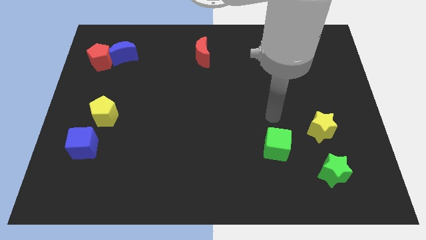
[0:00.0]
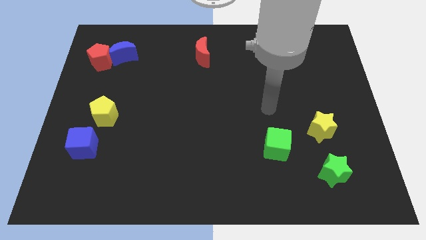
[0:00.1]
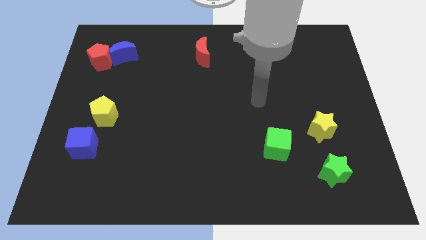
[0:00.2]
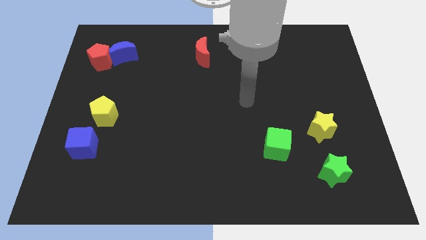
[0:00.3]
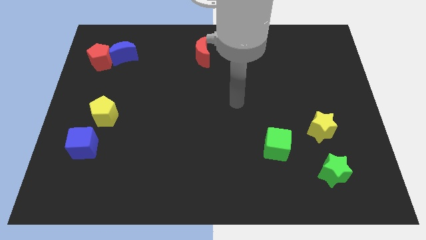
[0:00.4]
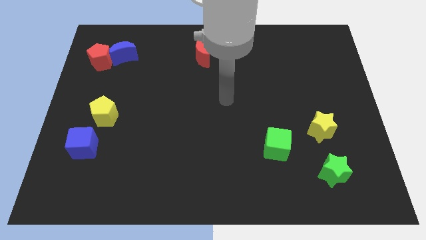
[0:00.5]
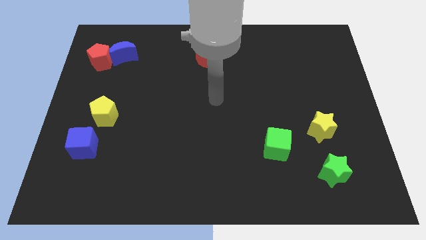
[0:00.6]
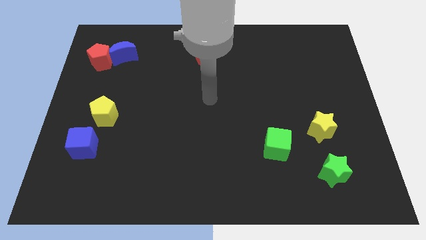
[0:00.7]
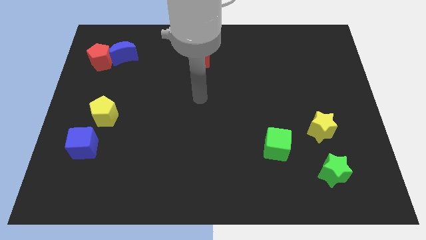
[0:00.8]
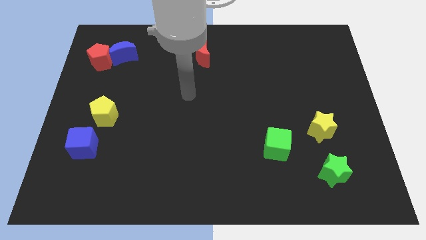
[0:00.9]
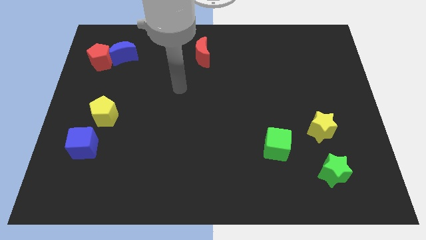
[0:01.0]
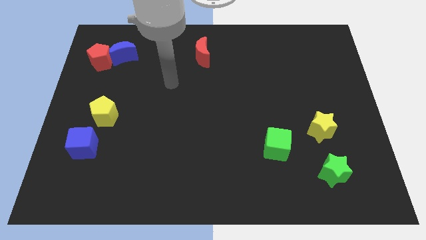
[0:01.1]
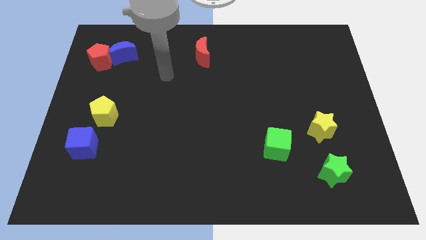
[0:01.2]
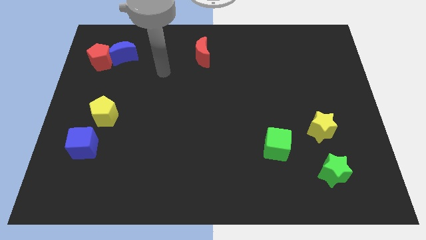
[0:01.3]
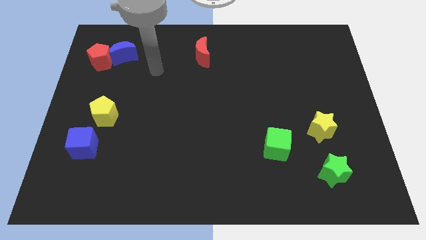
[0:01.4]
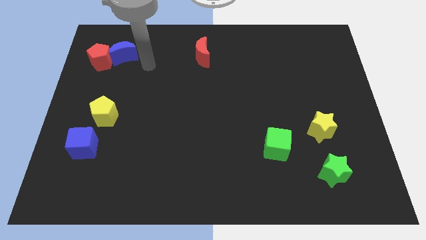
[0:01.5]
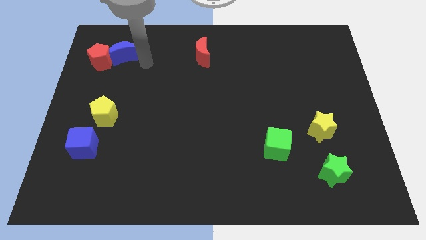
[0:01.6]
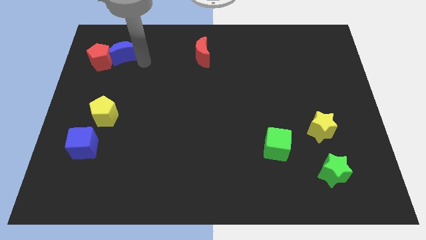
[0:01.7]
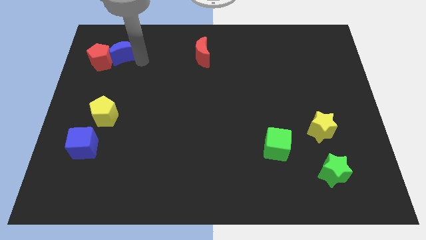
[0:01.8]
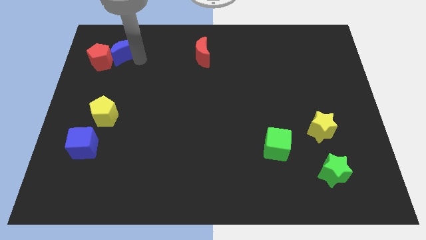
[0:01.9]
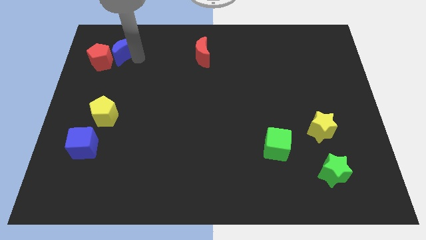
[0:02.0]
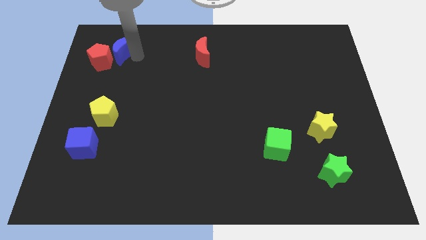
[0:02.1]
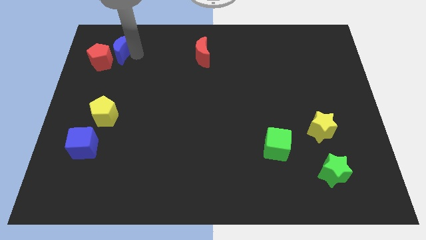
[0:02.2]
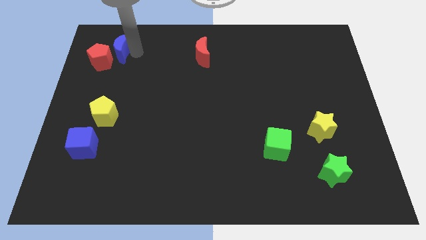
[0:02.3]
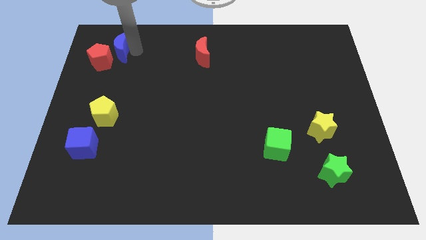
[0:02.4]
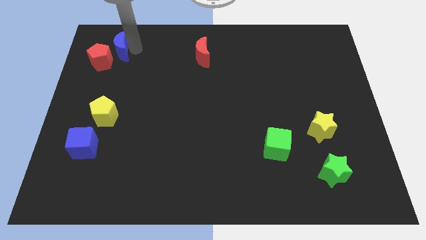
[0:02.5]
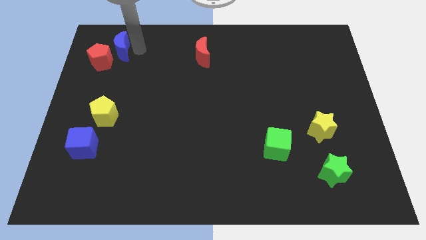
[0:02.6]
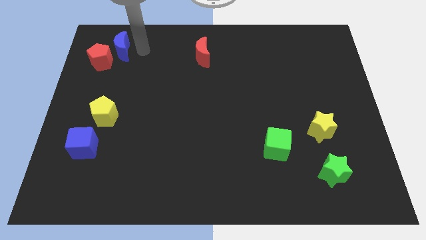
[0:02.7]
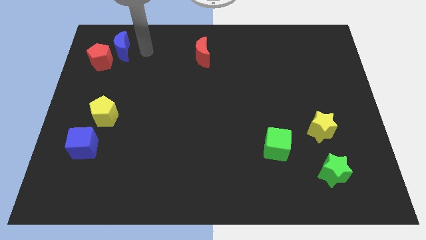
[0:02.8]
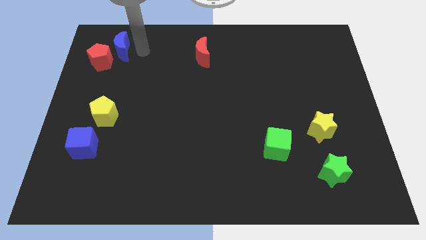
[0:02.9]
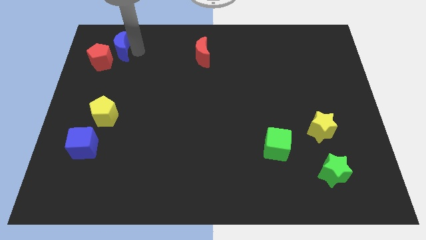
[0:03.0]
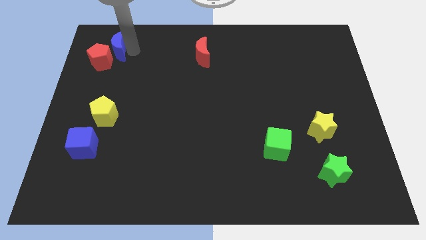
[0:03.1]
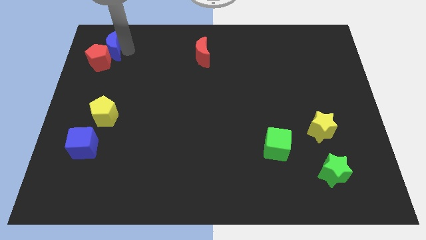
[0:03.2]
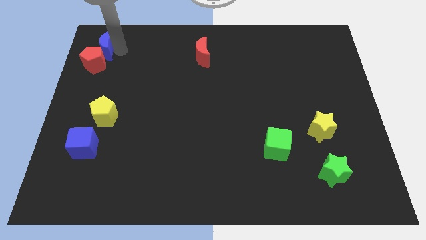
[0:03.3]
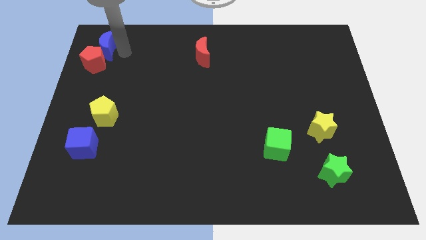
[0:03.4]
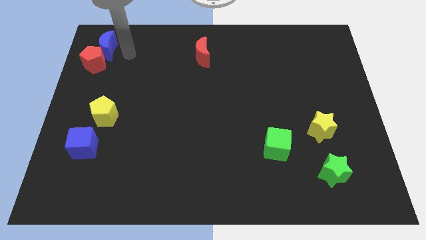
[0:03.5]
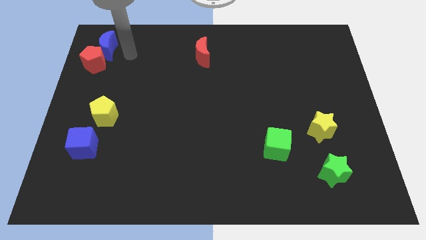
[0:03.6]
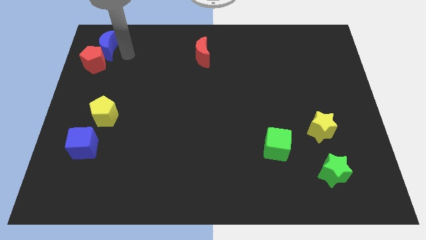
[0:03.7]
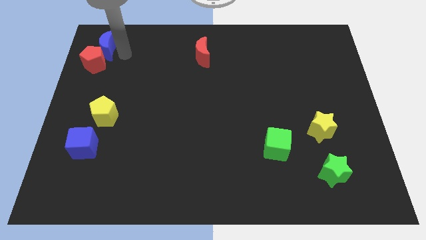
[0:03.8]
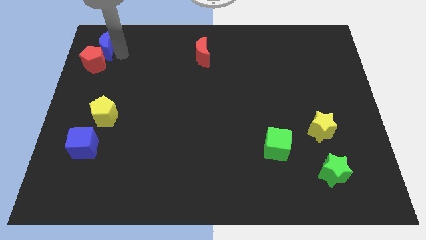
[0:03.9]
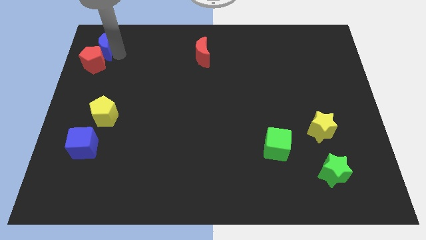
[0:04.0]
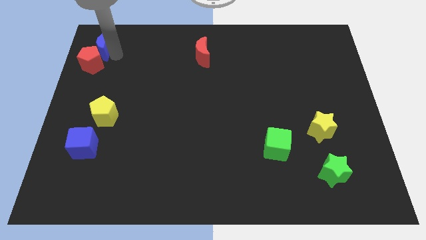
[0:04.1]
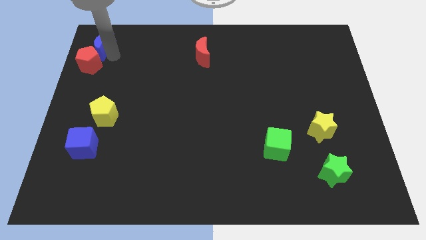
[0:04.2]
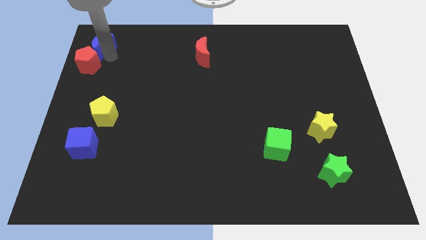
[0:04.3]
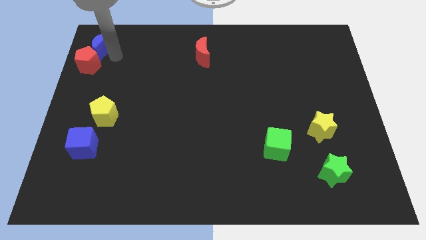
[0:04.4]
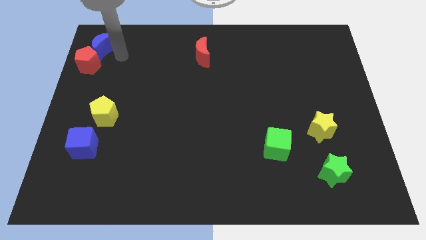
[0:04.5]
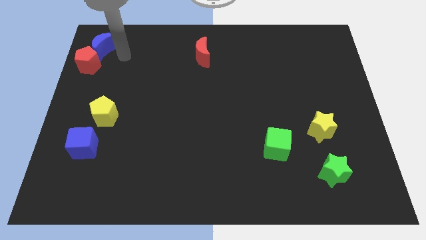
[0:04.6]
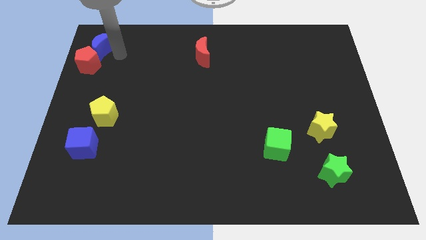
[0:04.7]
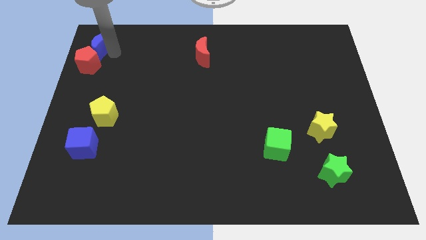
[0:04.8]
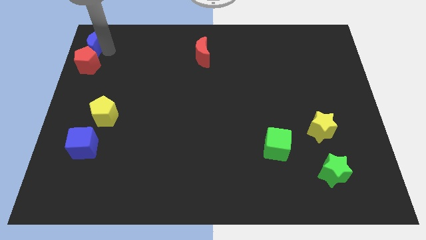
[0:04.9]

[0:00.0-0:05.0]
push the blue moon to the top left corner

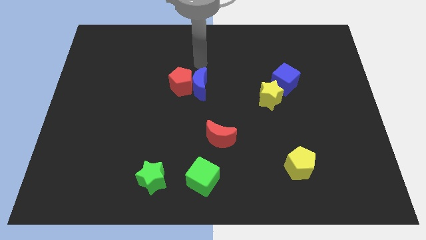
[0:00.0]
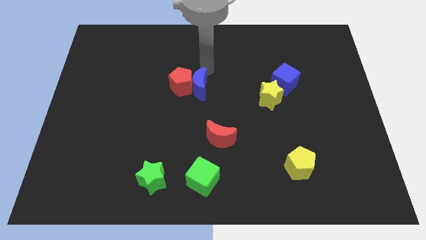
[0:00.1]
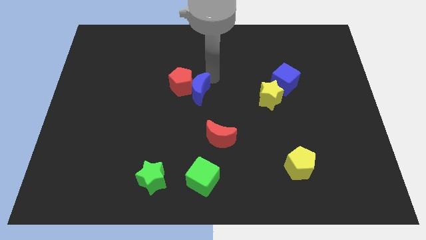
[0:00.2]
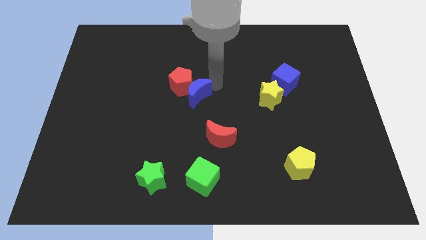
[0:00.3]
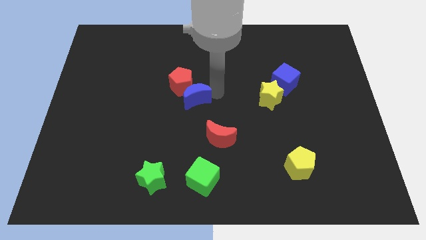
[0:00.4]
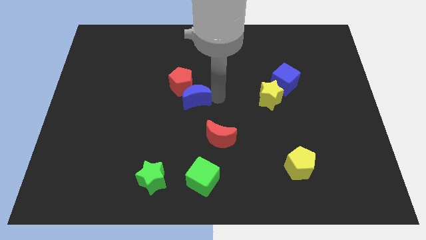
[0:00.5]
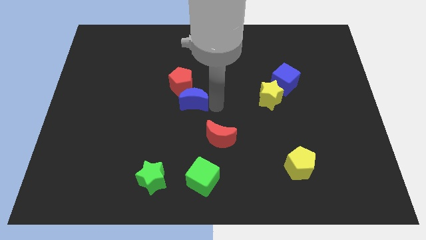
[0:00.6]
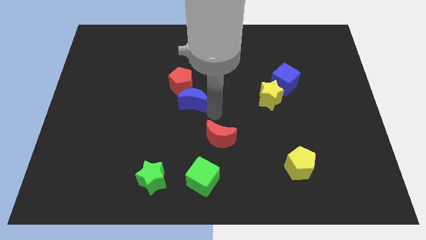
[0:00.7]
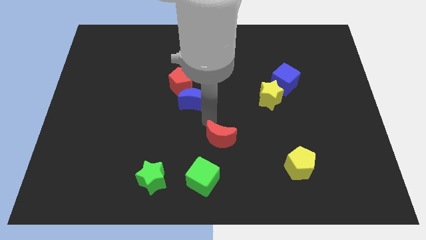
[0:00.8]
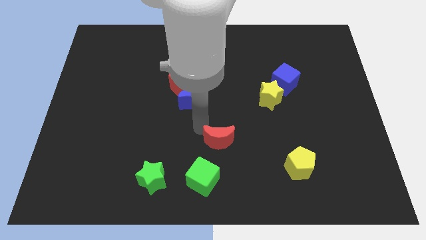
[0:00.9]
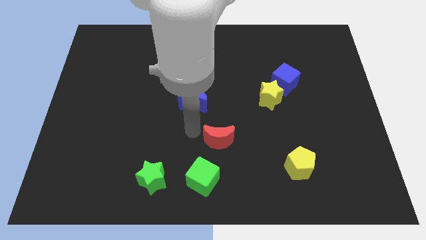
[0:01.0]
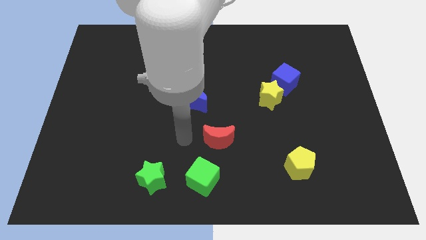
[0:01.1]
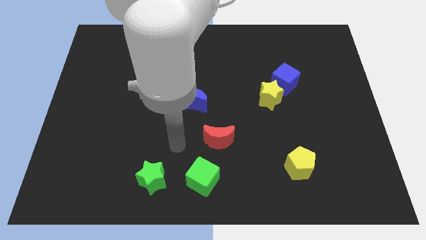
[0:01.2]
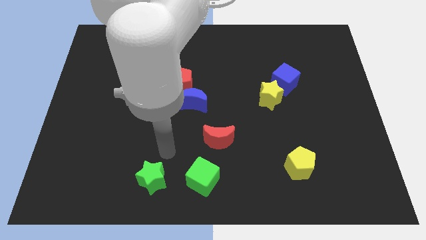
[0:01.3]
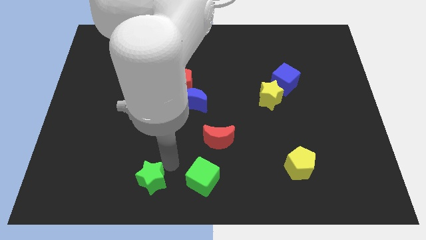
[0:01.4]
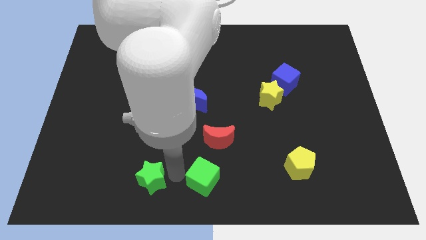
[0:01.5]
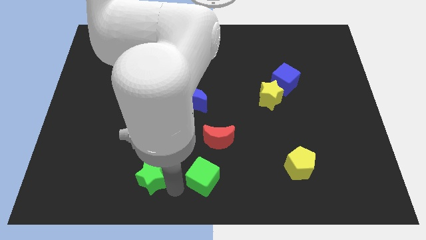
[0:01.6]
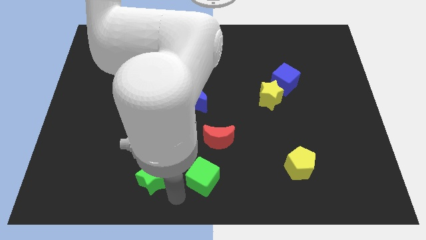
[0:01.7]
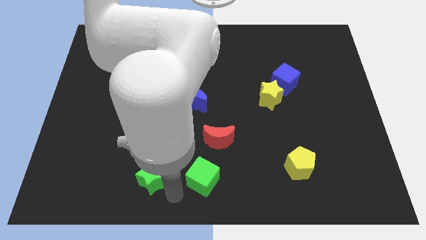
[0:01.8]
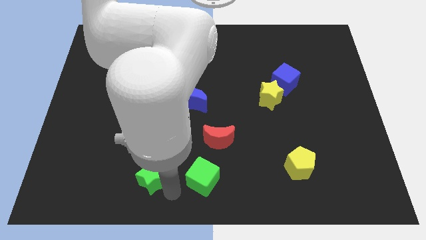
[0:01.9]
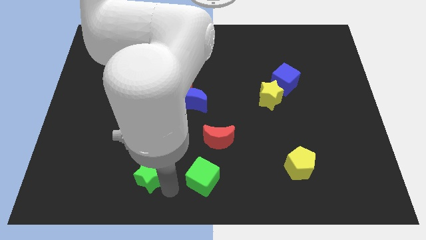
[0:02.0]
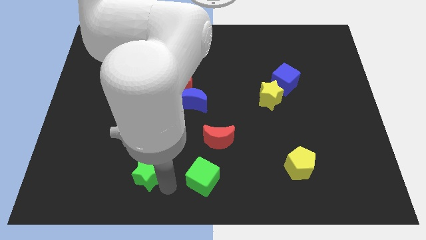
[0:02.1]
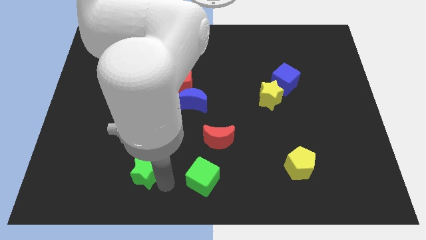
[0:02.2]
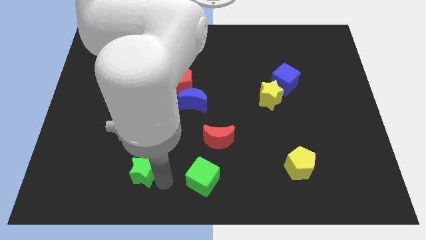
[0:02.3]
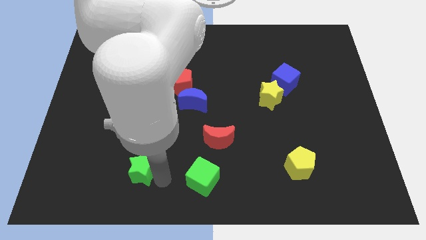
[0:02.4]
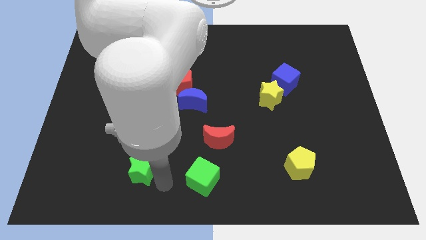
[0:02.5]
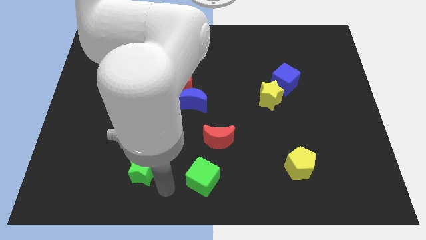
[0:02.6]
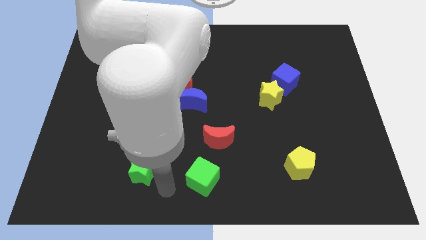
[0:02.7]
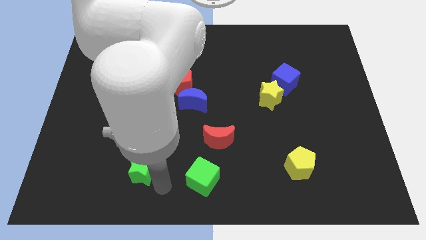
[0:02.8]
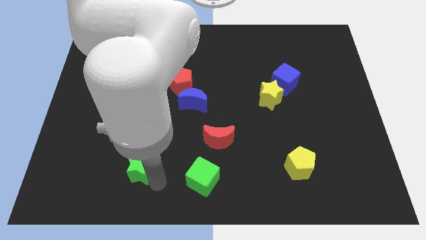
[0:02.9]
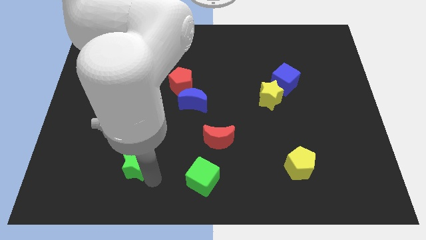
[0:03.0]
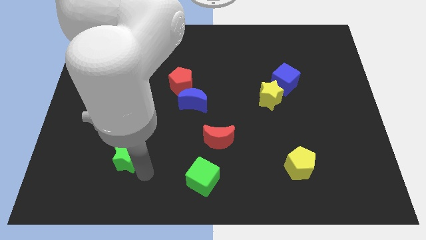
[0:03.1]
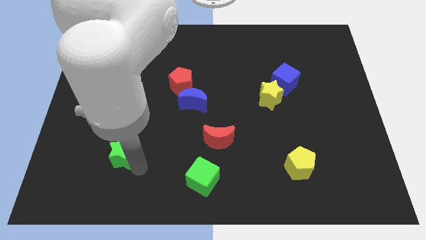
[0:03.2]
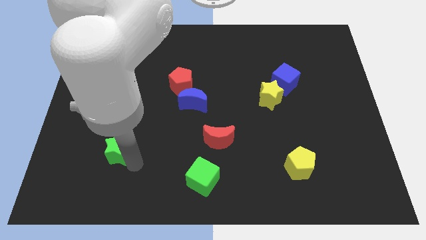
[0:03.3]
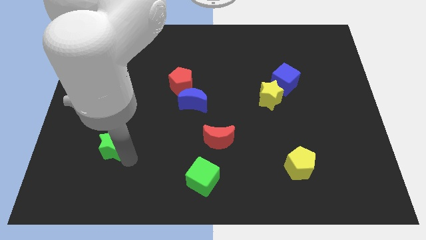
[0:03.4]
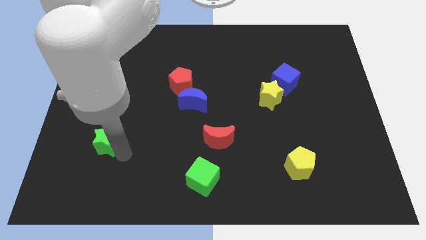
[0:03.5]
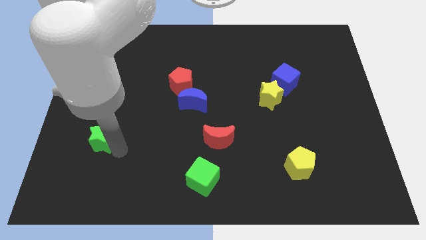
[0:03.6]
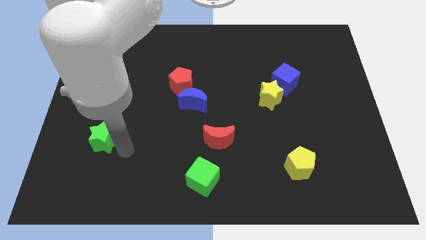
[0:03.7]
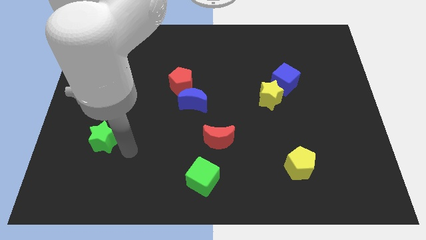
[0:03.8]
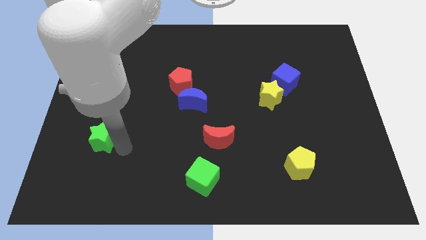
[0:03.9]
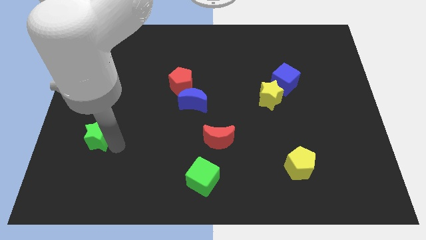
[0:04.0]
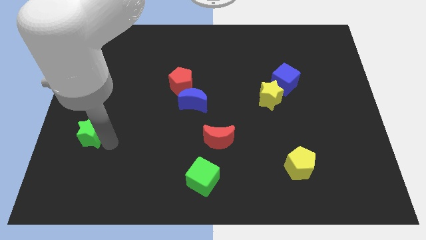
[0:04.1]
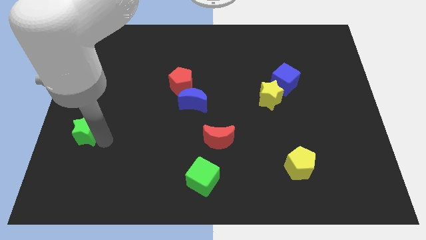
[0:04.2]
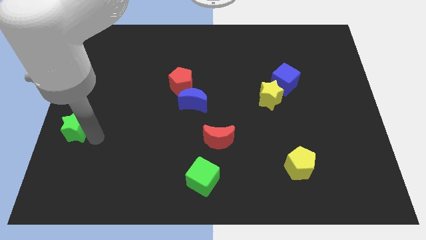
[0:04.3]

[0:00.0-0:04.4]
move the green star to the left side of the board
